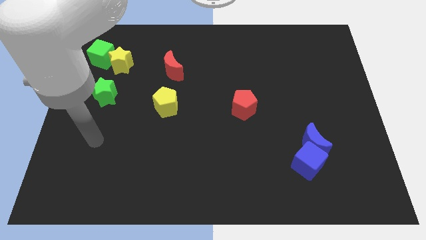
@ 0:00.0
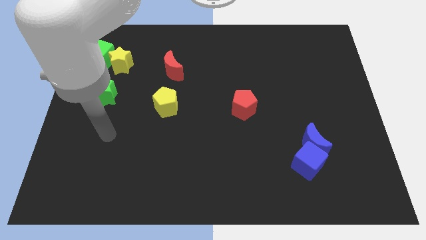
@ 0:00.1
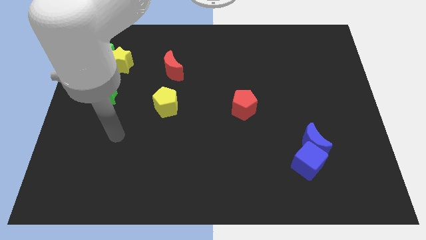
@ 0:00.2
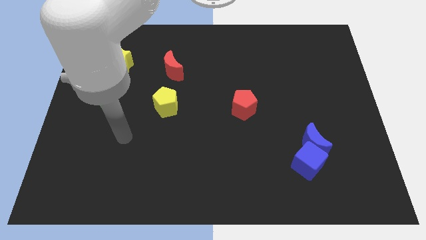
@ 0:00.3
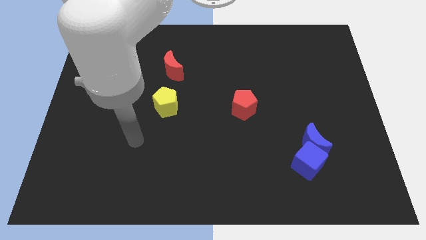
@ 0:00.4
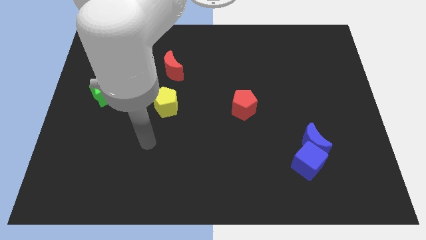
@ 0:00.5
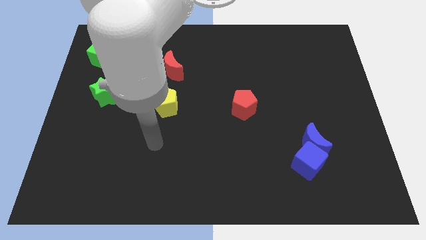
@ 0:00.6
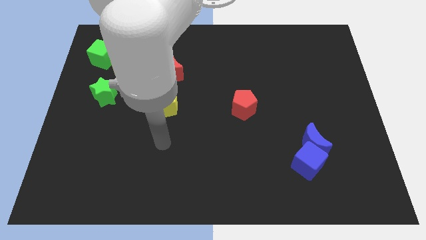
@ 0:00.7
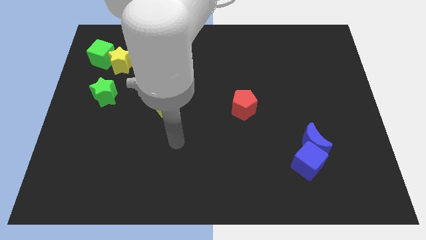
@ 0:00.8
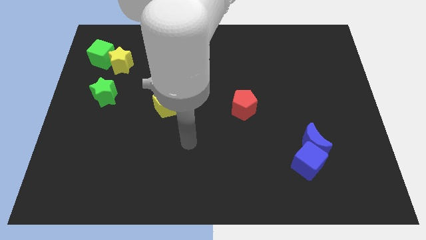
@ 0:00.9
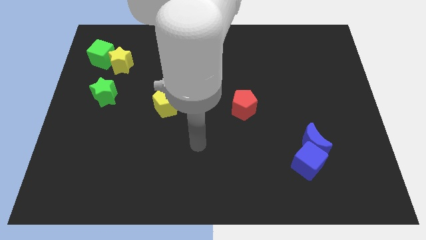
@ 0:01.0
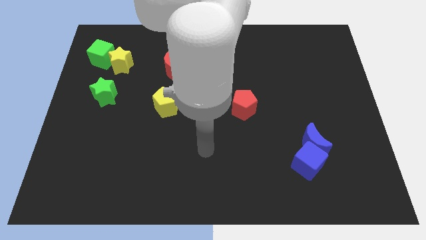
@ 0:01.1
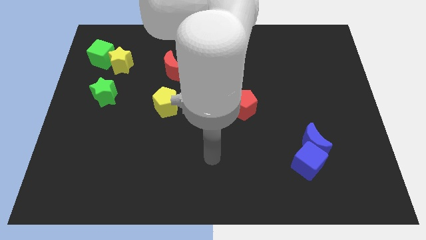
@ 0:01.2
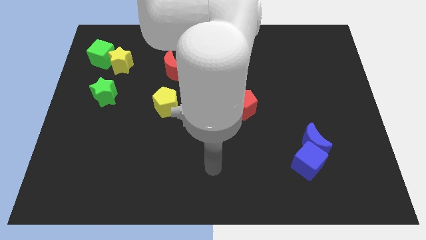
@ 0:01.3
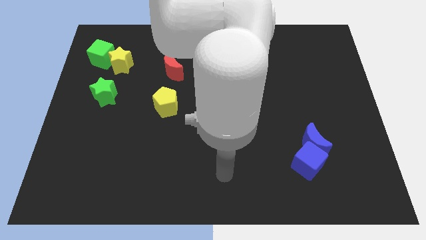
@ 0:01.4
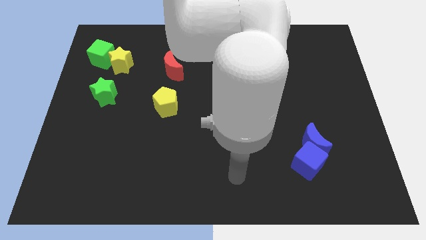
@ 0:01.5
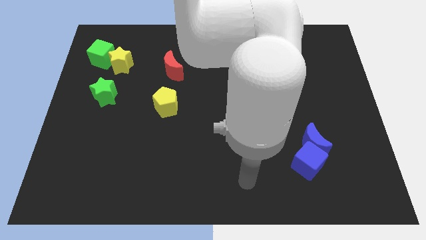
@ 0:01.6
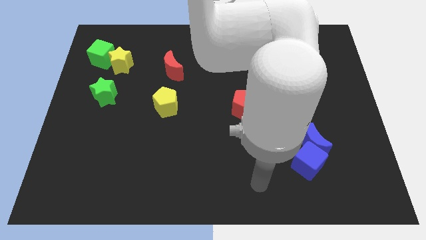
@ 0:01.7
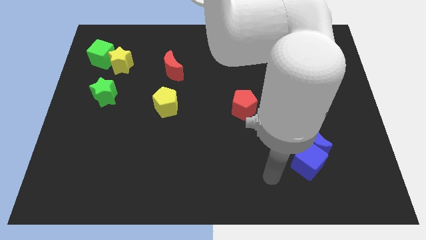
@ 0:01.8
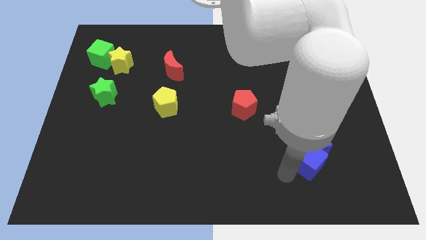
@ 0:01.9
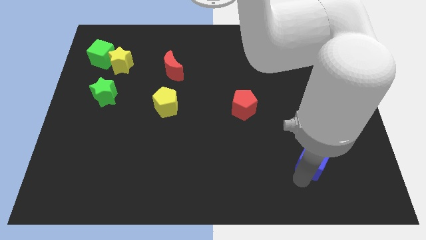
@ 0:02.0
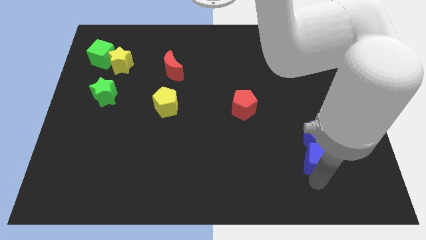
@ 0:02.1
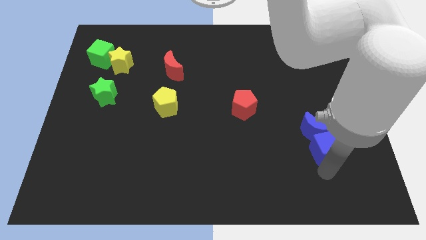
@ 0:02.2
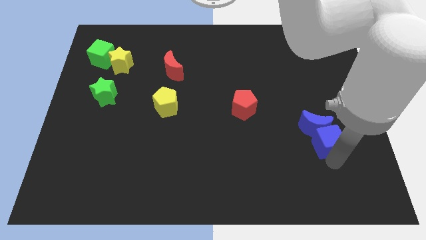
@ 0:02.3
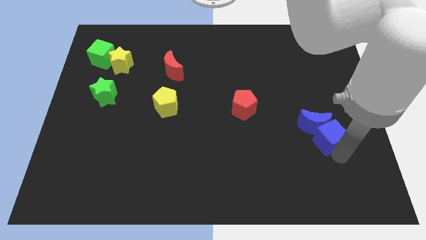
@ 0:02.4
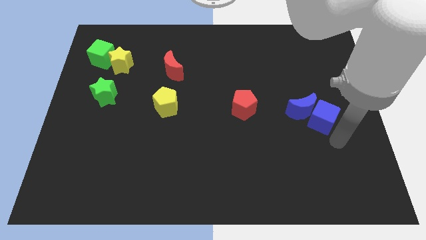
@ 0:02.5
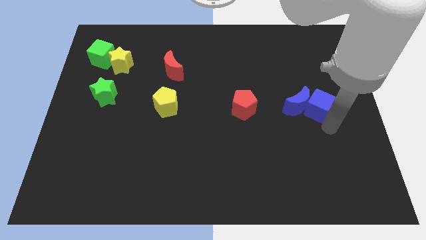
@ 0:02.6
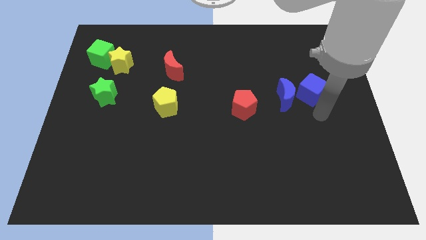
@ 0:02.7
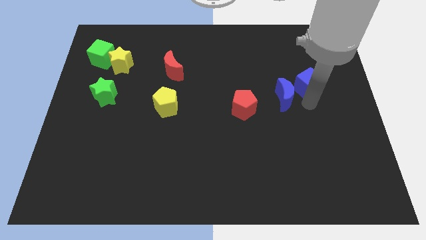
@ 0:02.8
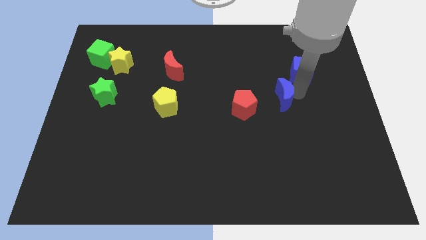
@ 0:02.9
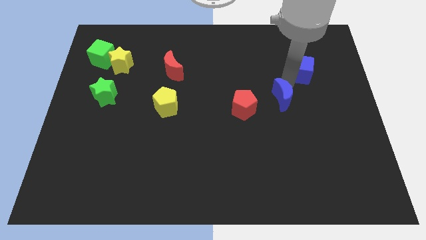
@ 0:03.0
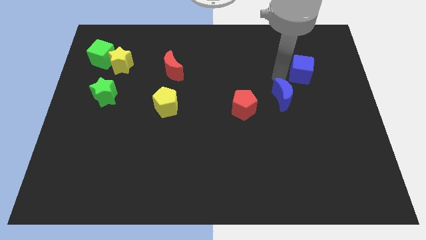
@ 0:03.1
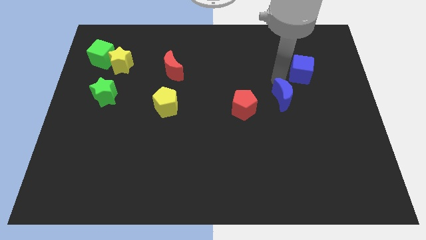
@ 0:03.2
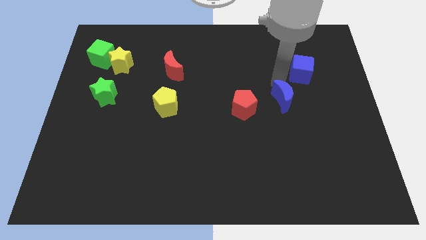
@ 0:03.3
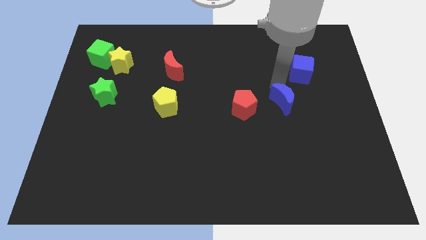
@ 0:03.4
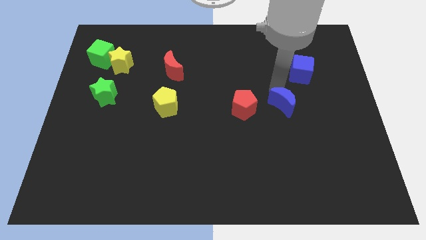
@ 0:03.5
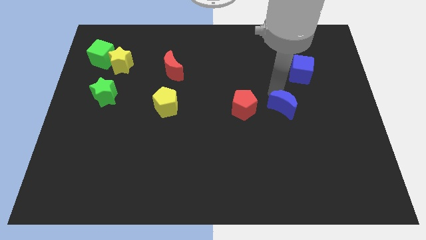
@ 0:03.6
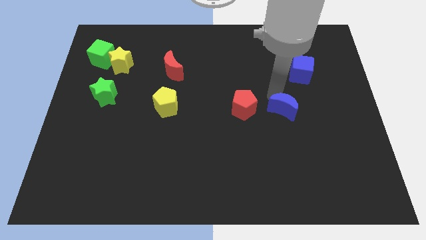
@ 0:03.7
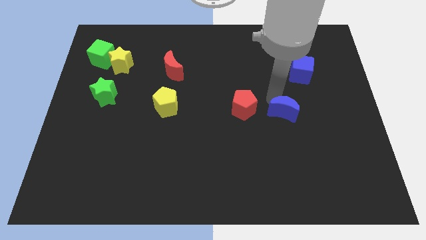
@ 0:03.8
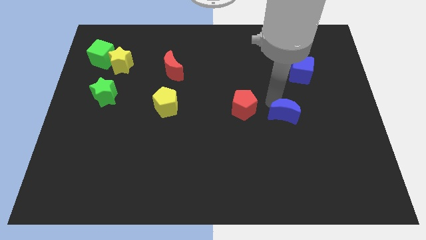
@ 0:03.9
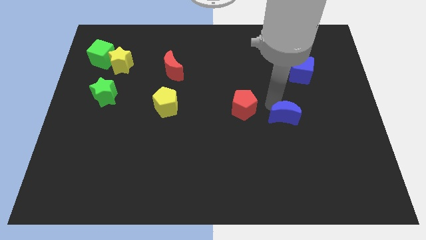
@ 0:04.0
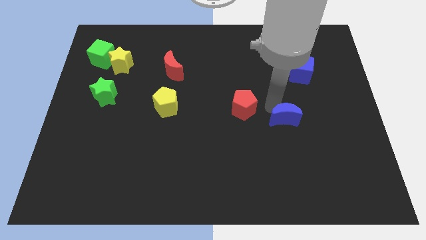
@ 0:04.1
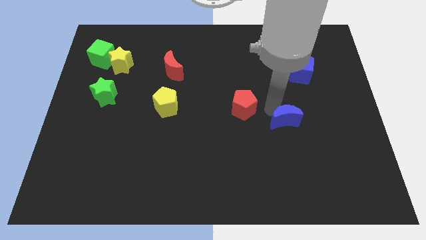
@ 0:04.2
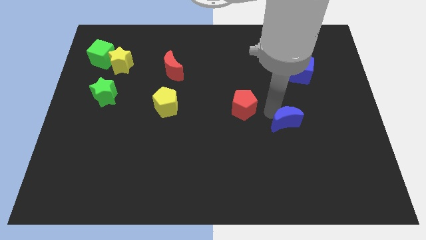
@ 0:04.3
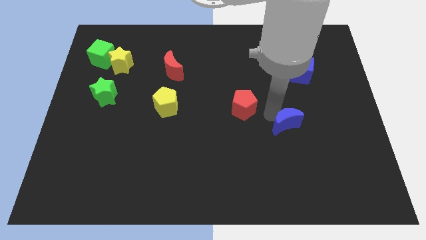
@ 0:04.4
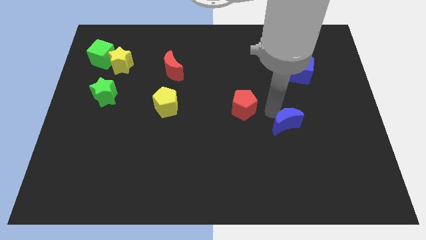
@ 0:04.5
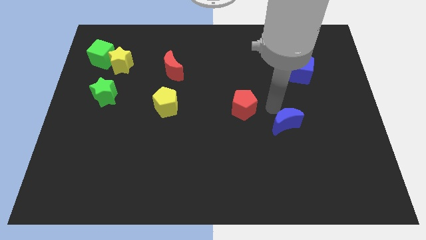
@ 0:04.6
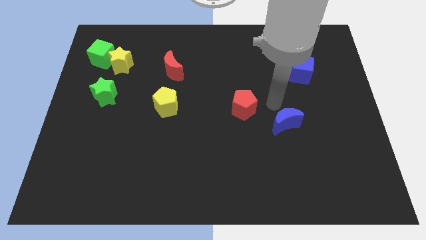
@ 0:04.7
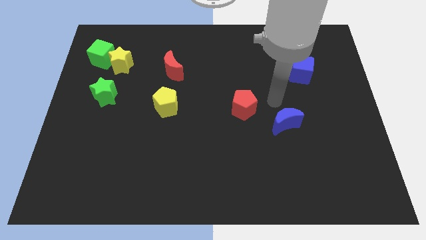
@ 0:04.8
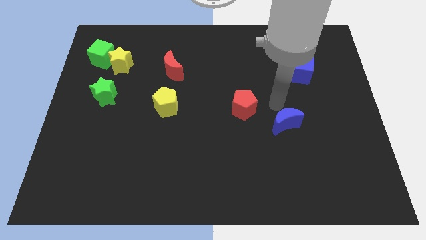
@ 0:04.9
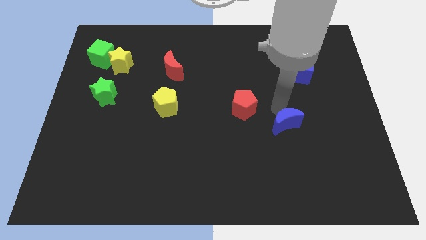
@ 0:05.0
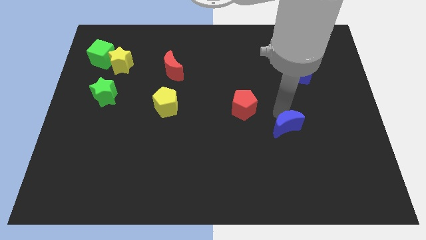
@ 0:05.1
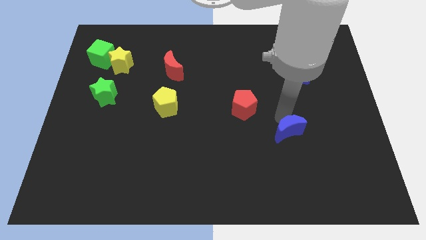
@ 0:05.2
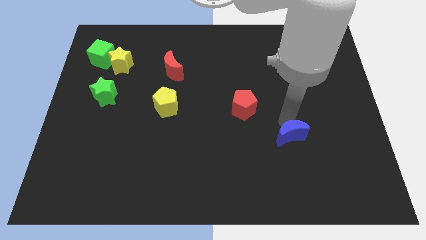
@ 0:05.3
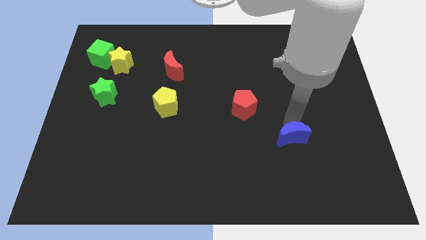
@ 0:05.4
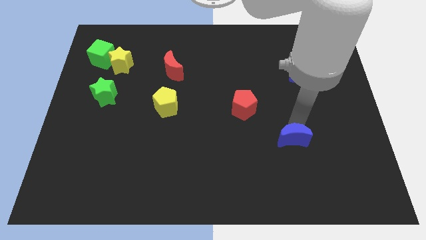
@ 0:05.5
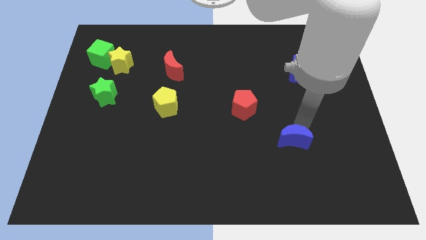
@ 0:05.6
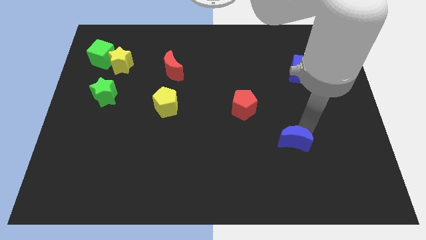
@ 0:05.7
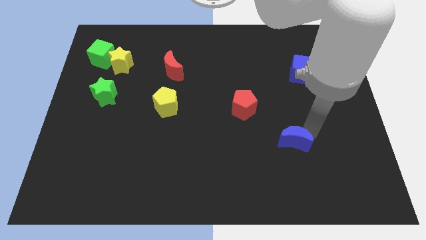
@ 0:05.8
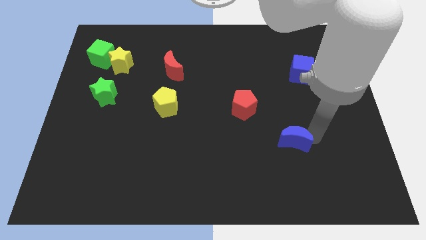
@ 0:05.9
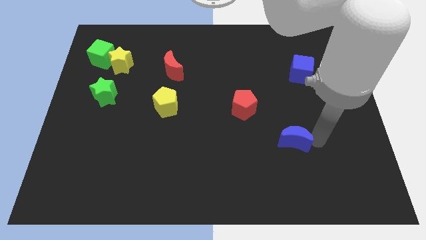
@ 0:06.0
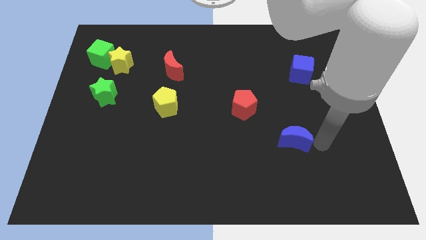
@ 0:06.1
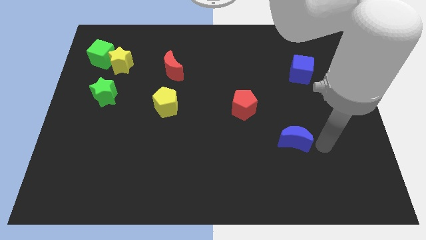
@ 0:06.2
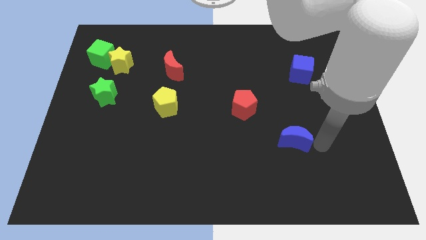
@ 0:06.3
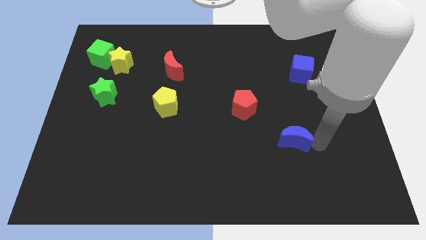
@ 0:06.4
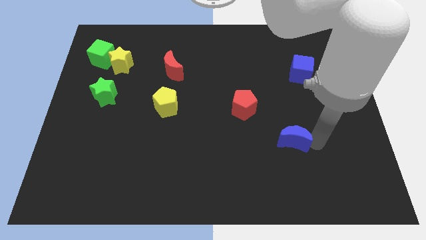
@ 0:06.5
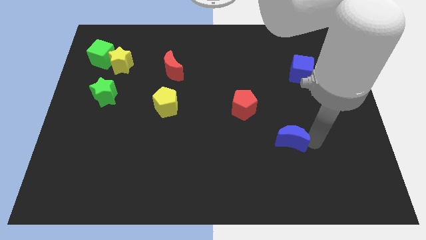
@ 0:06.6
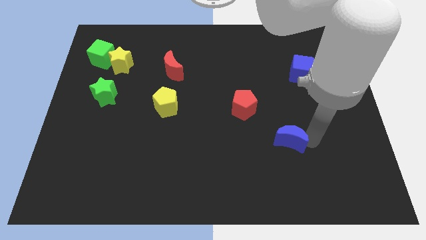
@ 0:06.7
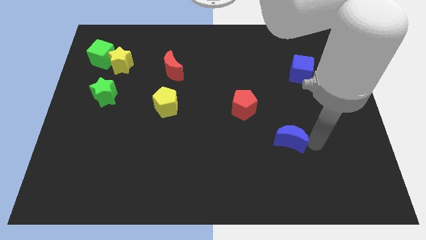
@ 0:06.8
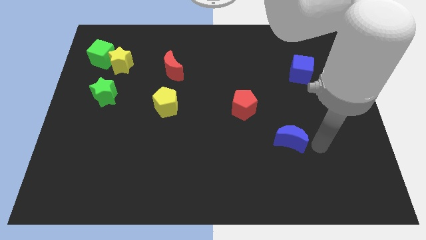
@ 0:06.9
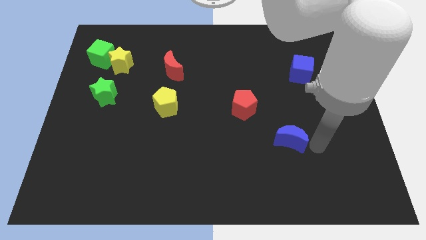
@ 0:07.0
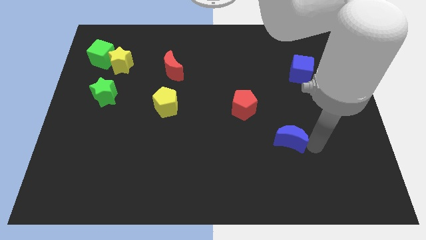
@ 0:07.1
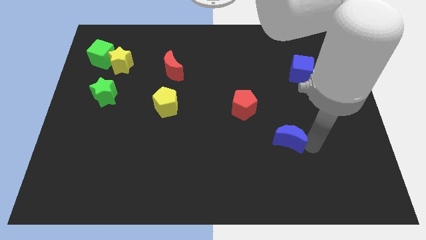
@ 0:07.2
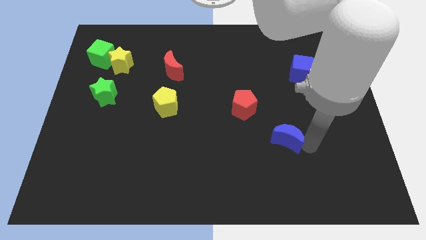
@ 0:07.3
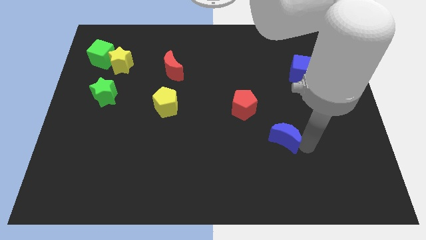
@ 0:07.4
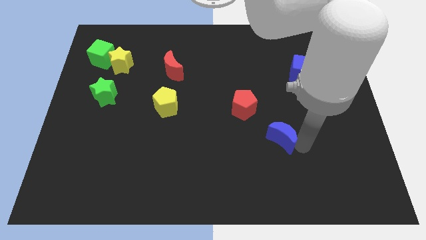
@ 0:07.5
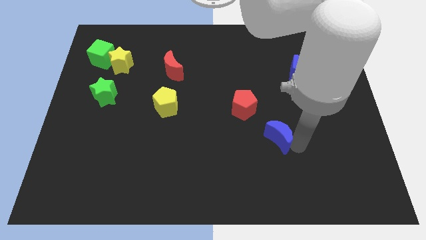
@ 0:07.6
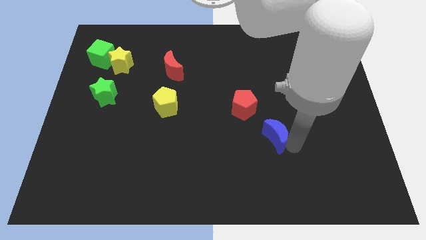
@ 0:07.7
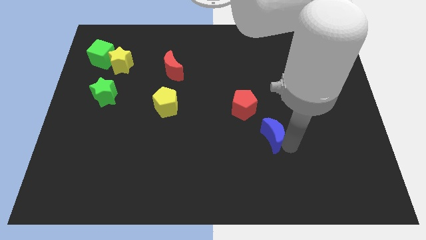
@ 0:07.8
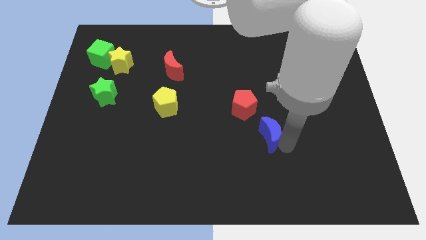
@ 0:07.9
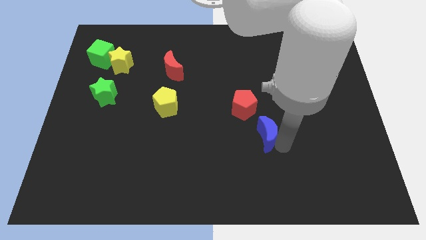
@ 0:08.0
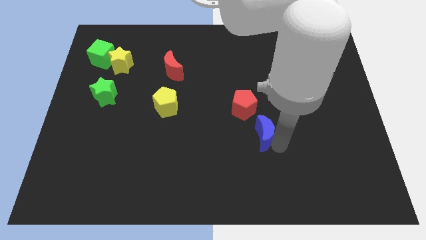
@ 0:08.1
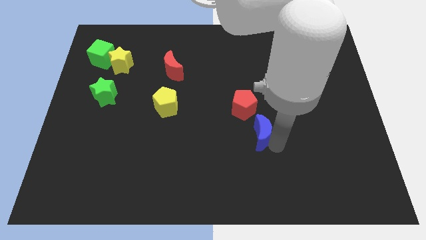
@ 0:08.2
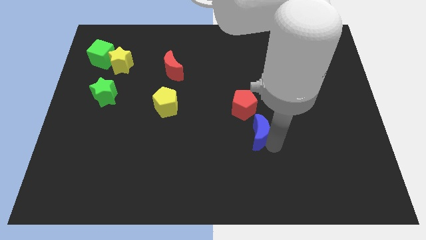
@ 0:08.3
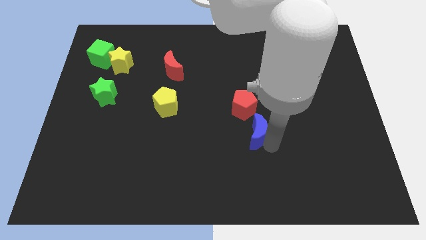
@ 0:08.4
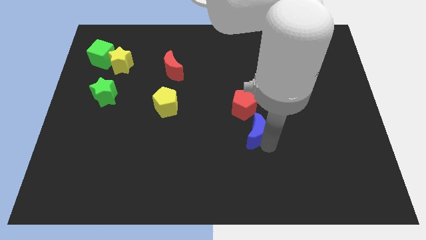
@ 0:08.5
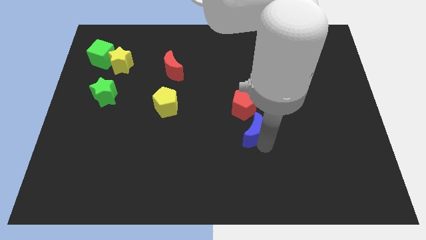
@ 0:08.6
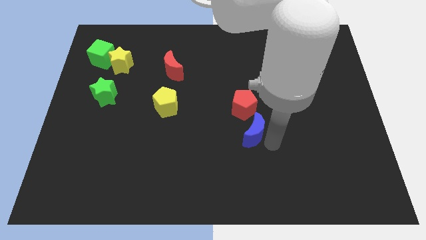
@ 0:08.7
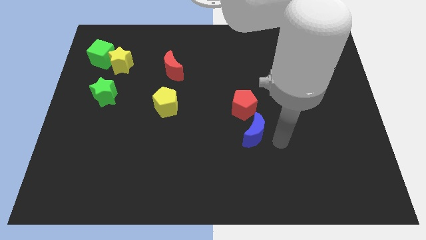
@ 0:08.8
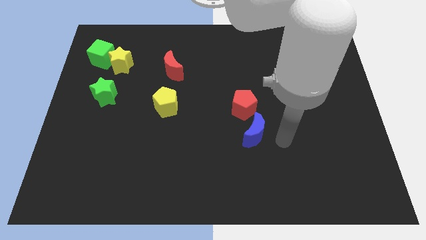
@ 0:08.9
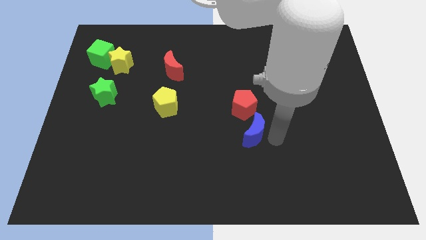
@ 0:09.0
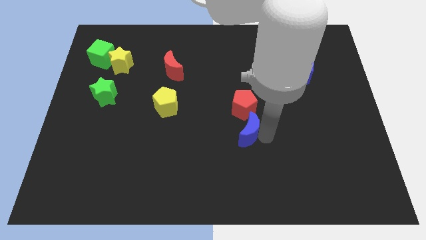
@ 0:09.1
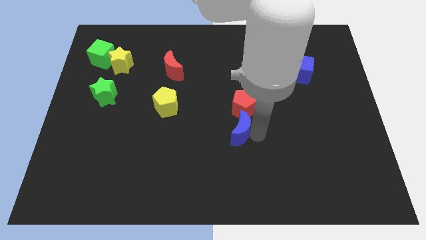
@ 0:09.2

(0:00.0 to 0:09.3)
slide the blue moon diagonally down and to the left of the red pentagon
